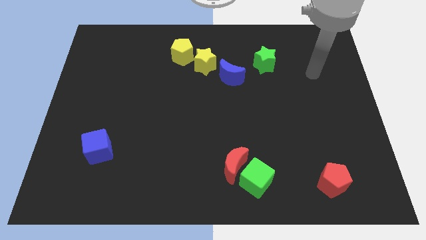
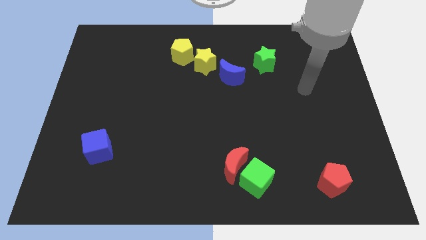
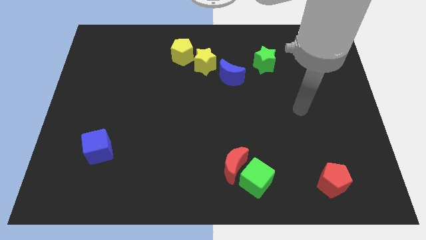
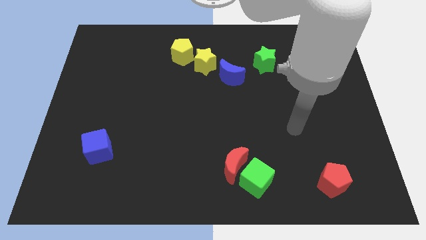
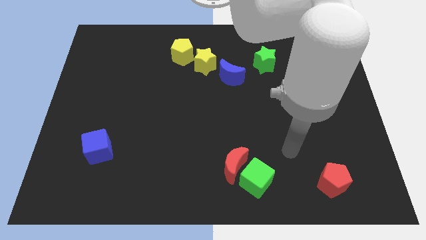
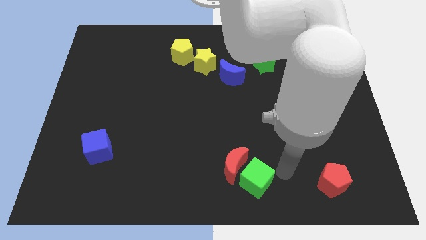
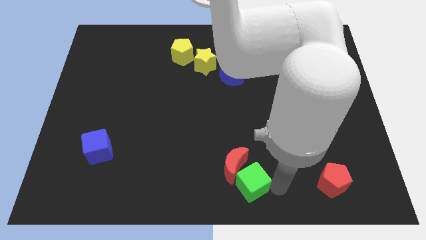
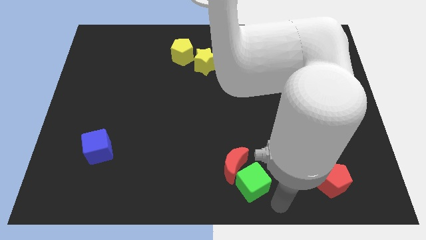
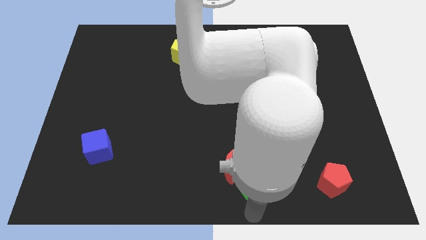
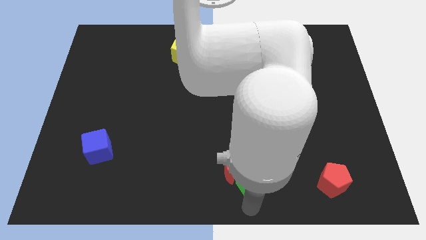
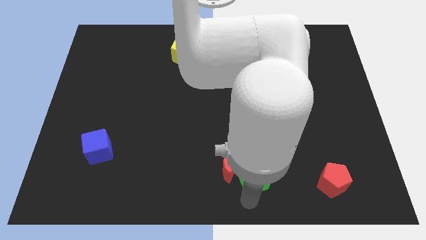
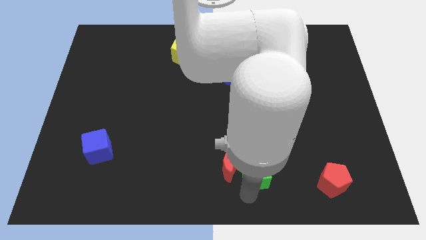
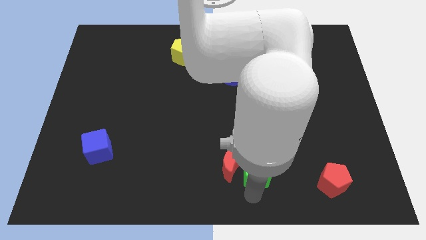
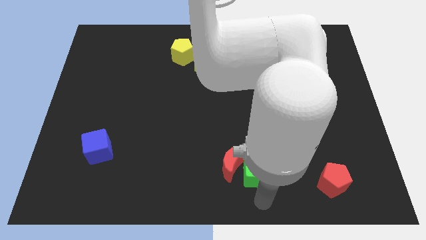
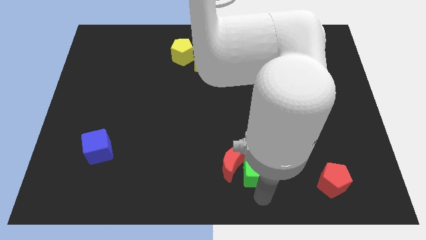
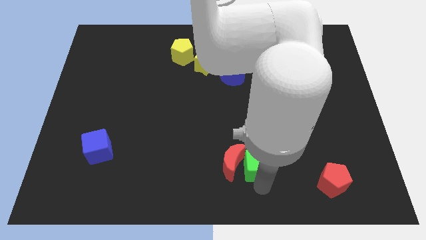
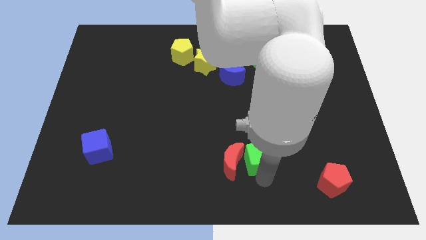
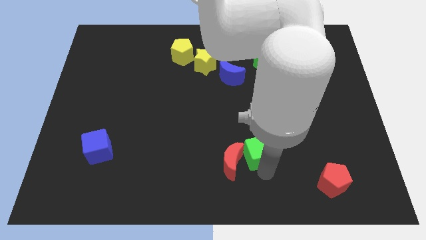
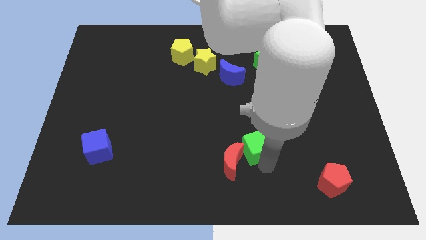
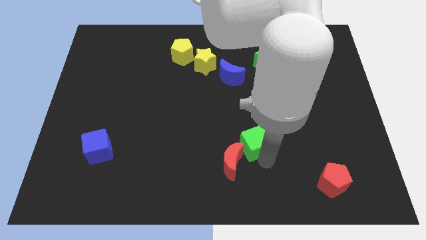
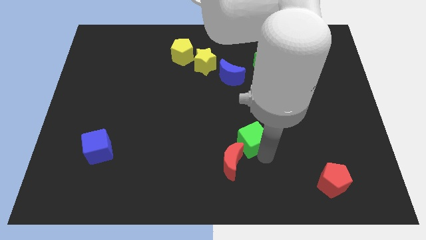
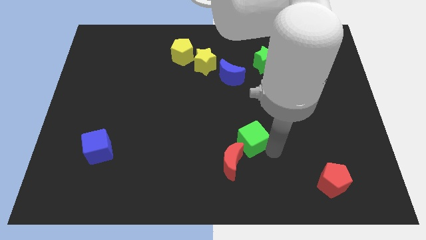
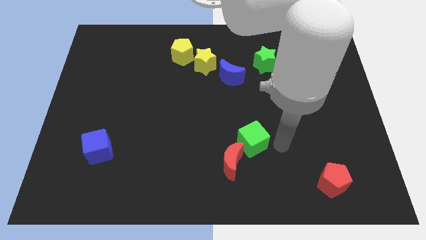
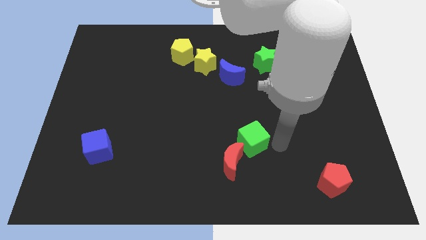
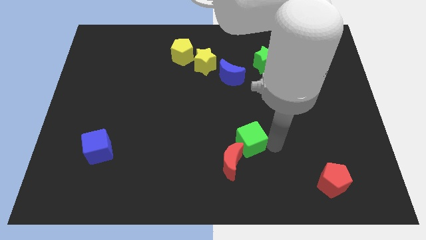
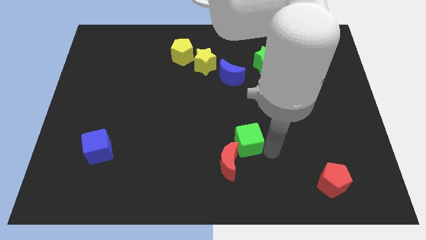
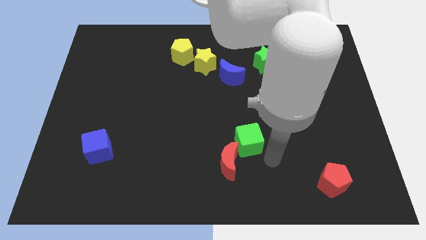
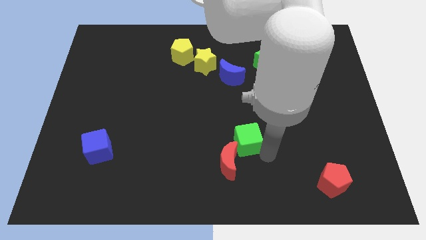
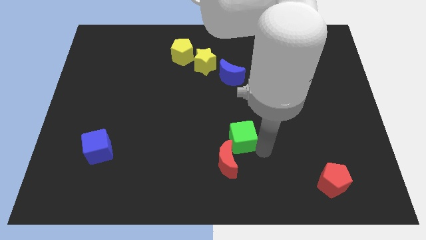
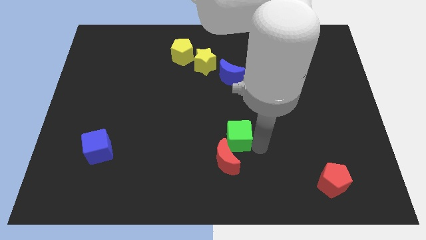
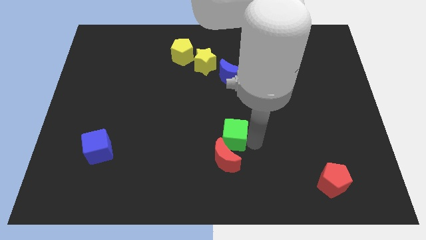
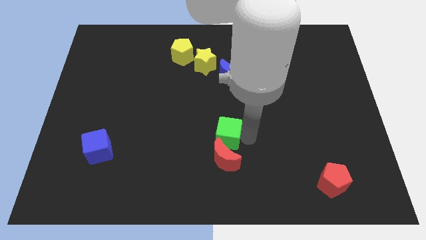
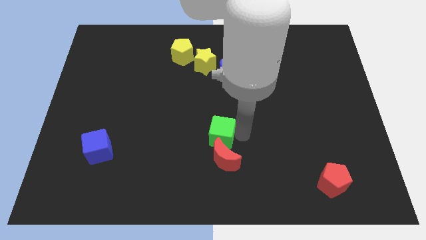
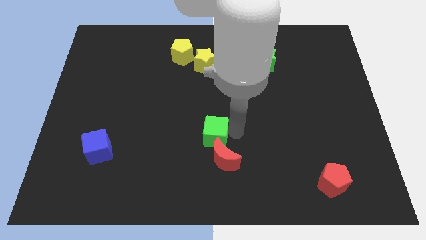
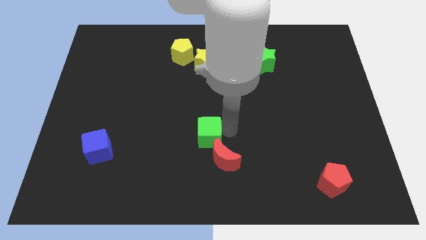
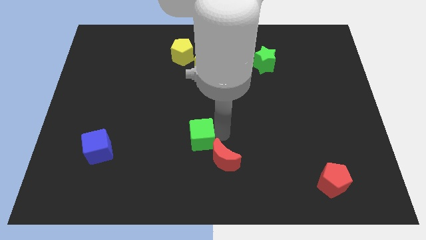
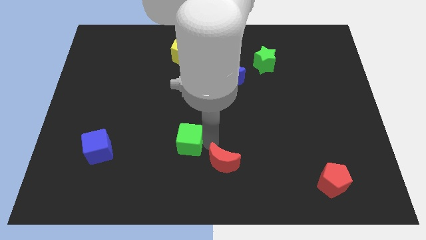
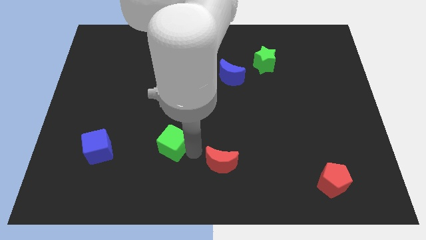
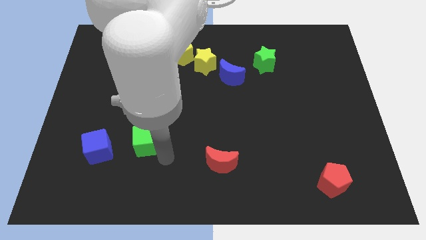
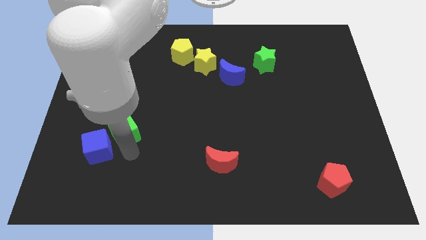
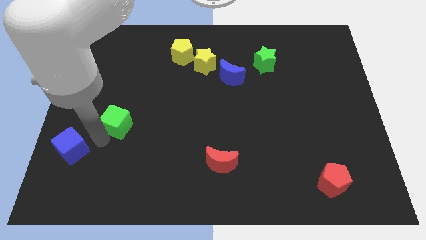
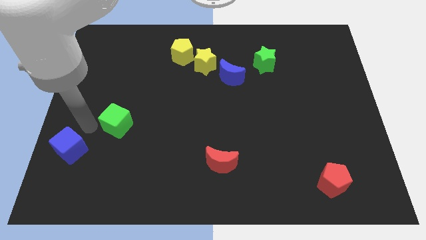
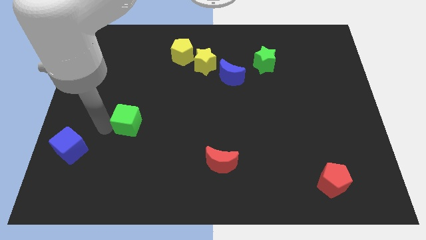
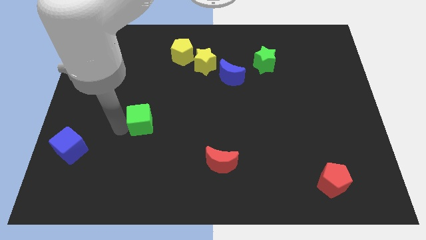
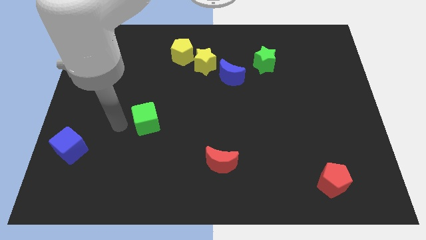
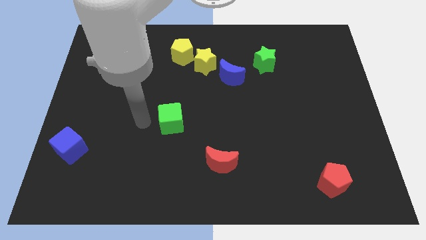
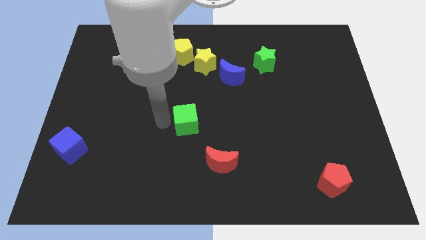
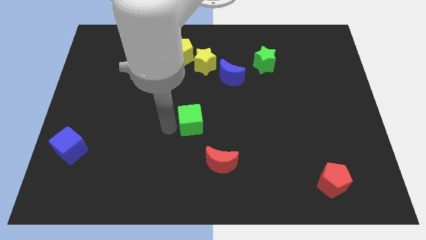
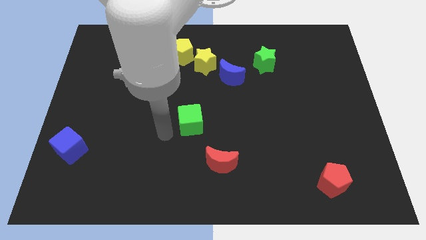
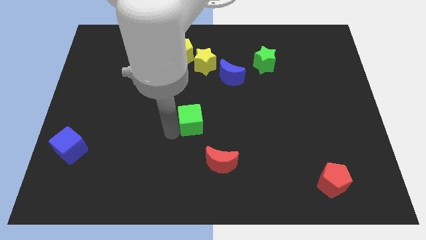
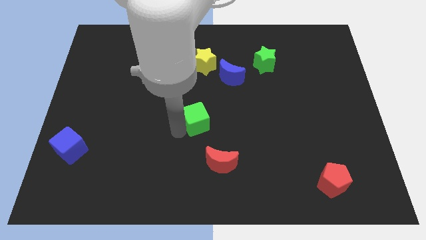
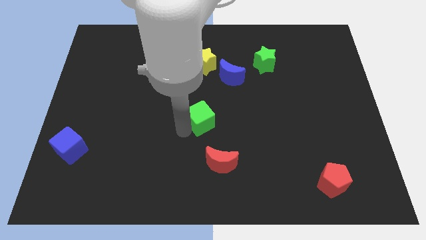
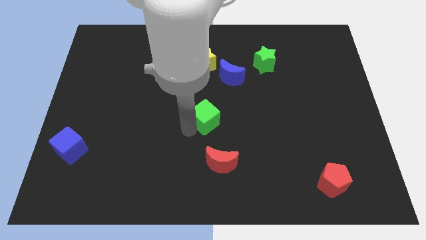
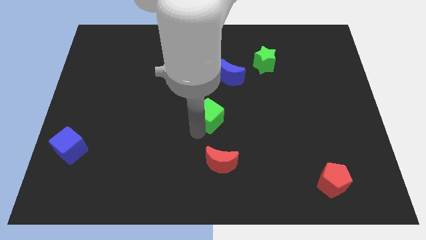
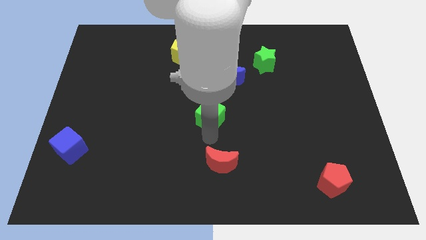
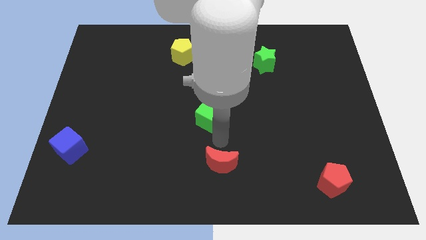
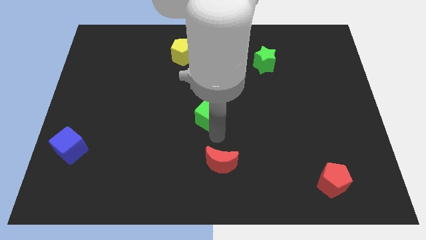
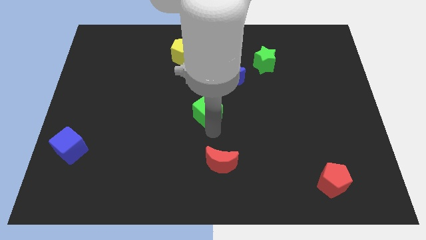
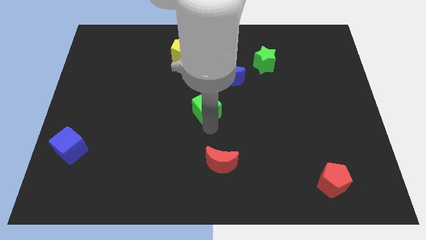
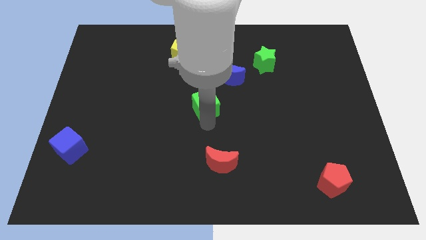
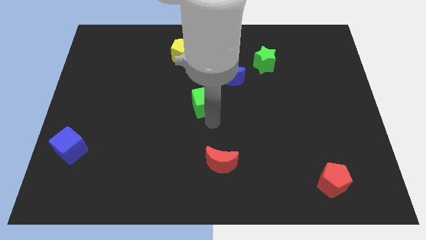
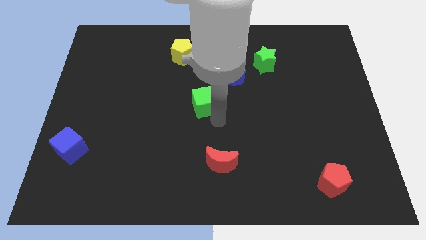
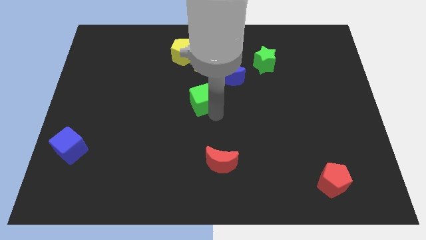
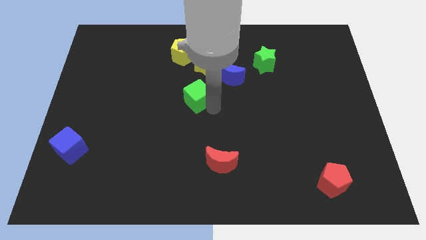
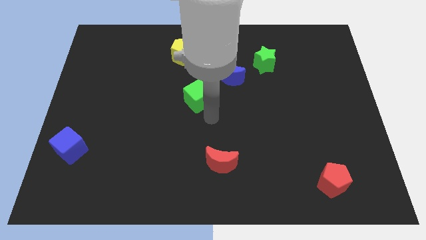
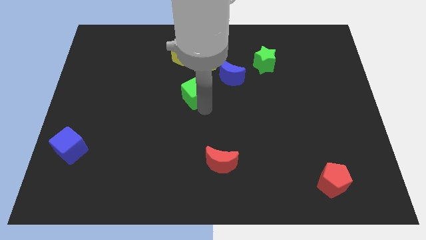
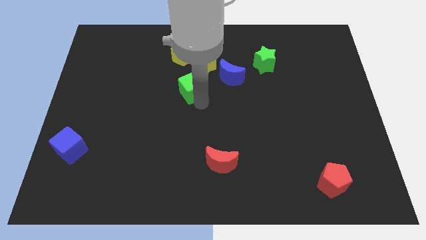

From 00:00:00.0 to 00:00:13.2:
put the green cube to the bottom left of the yellow star

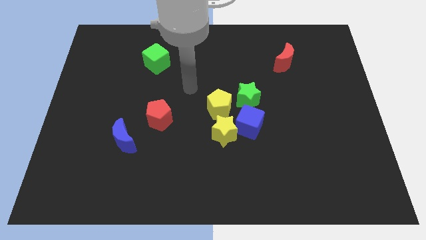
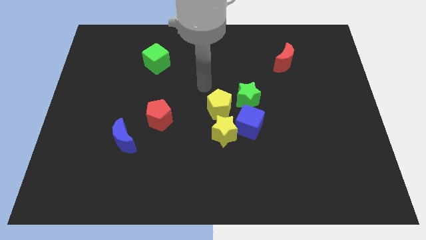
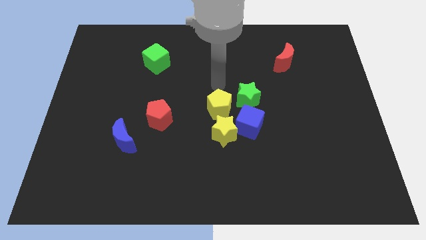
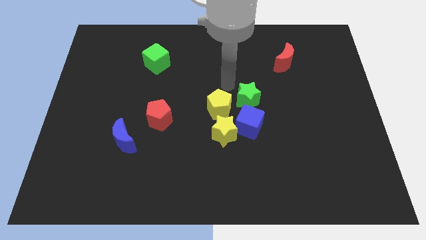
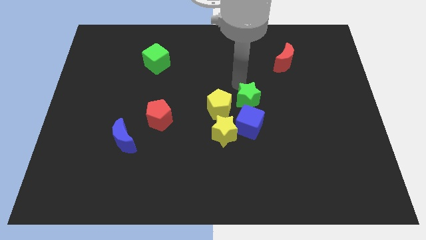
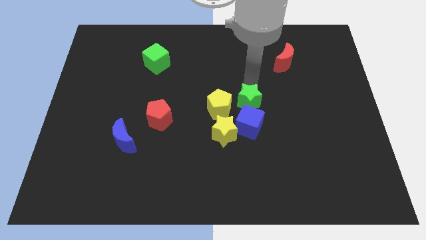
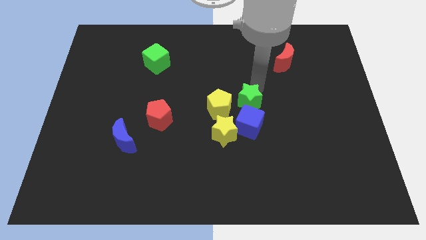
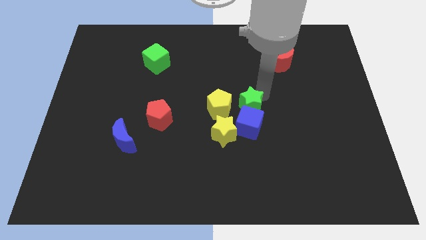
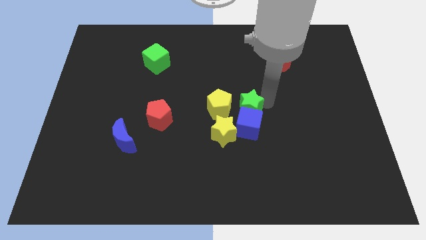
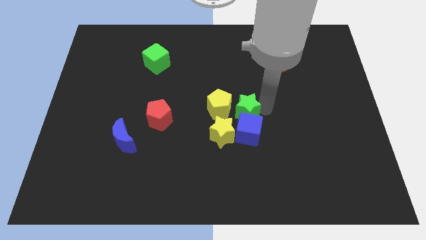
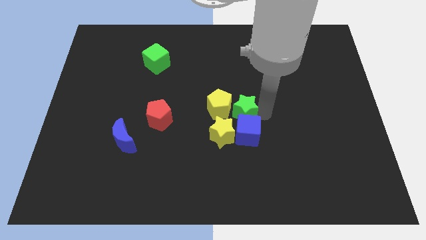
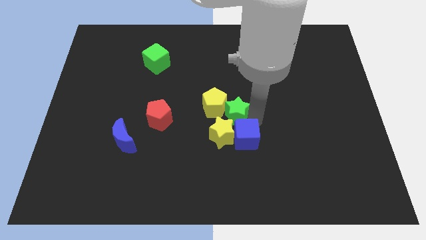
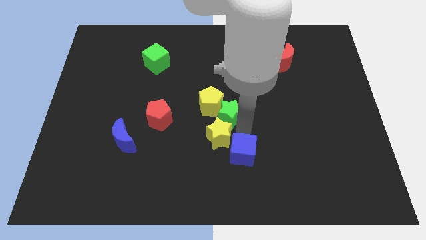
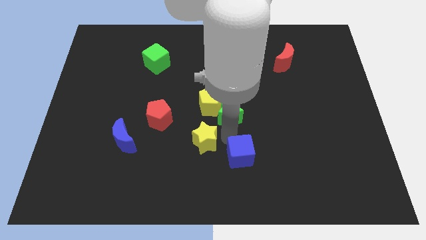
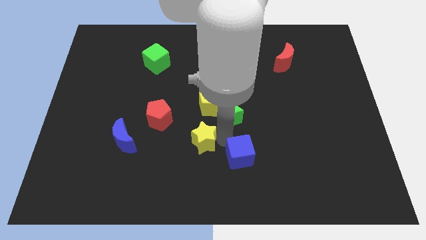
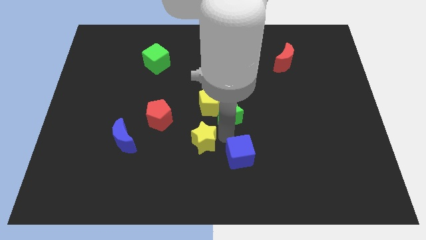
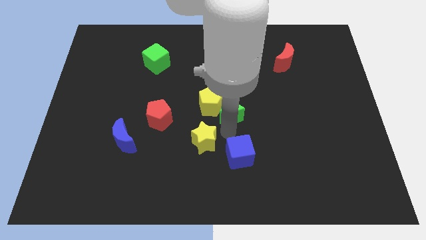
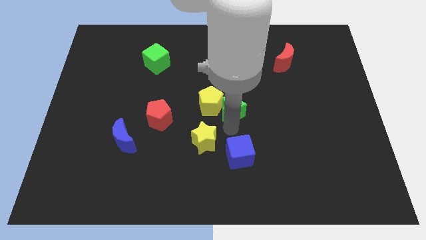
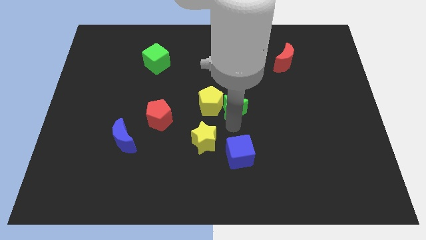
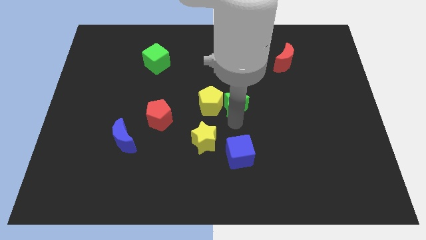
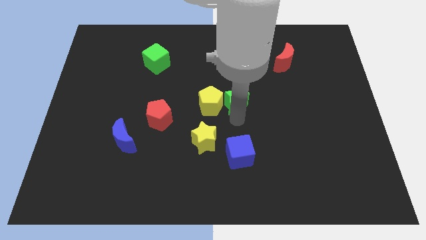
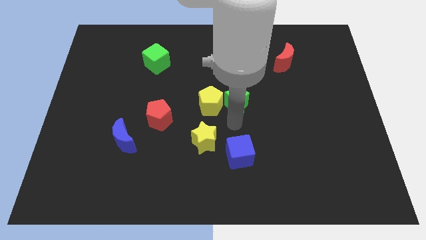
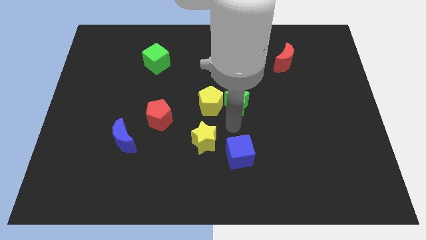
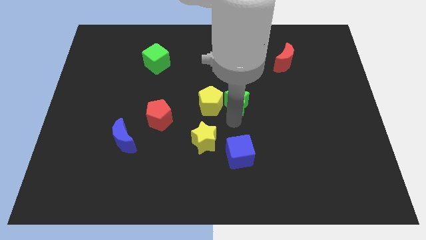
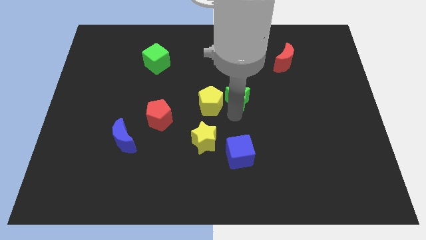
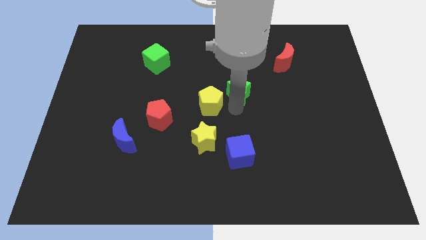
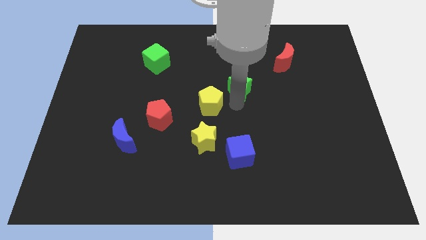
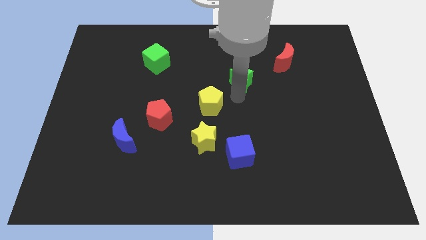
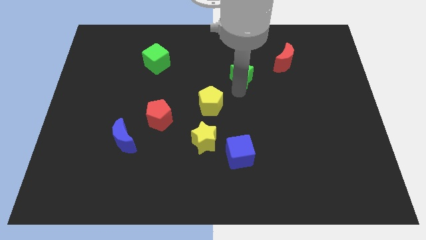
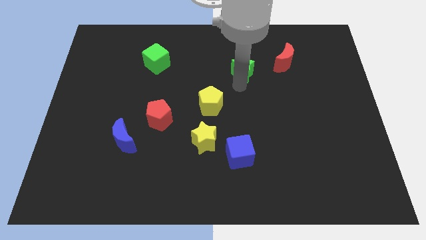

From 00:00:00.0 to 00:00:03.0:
put the green star left of the red moon
